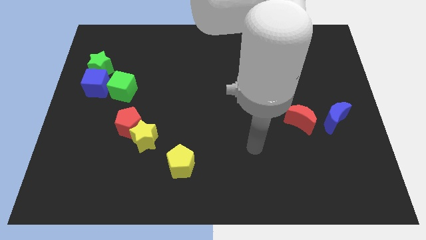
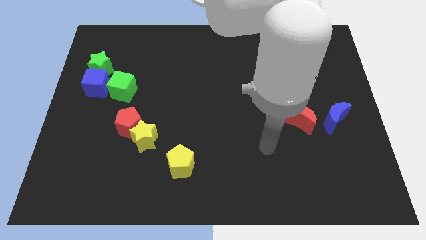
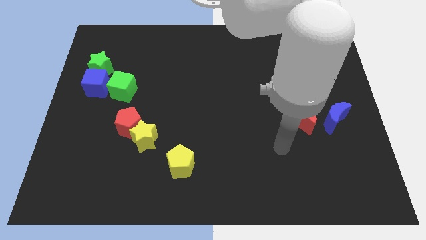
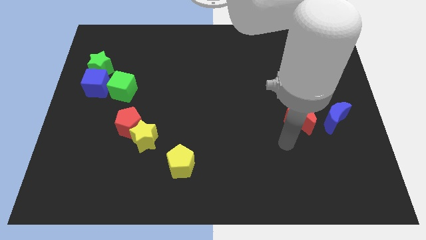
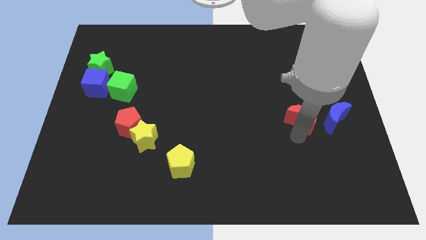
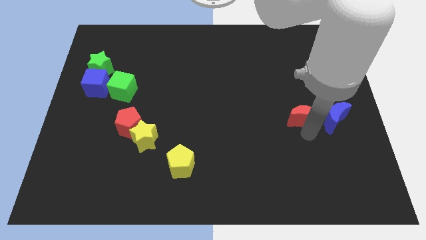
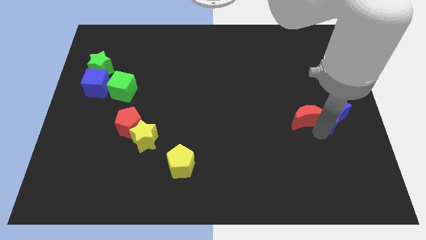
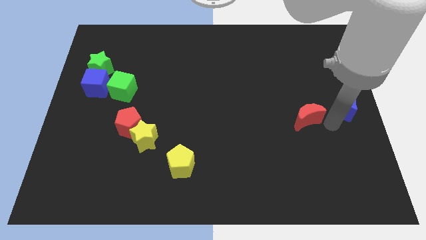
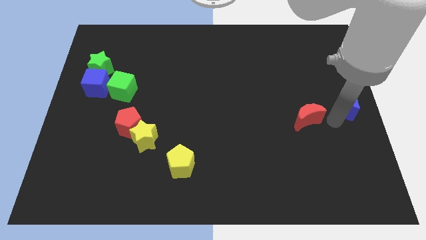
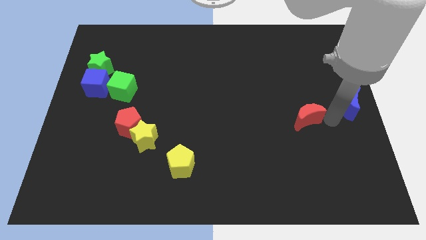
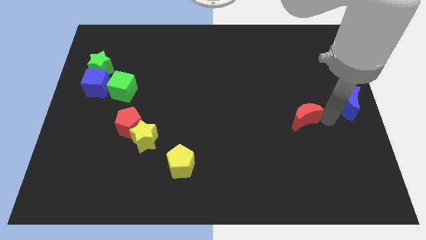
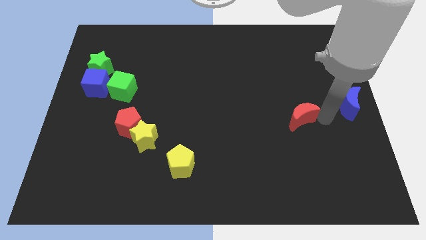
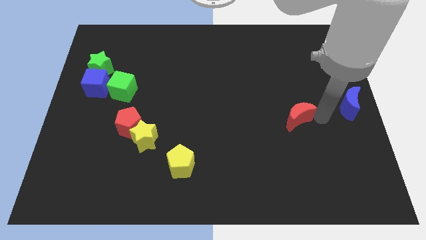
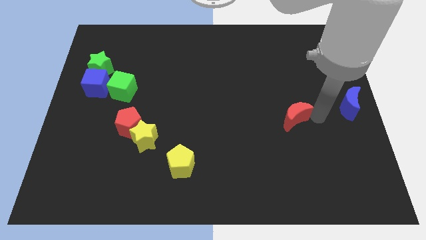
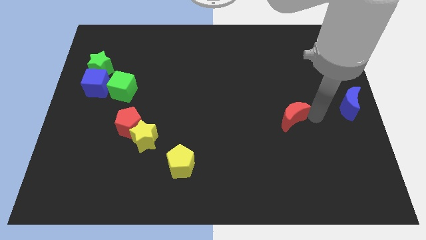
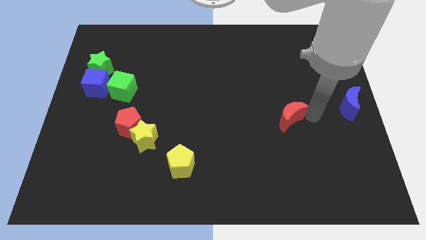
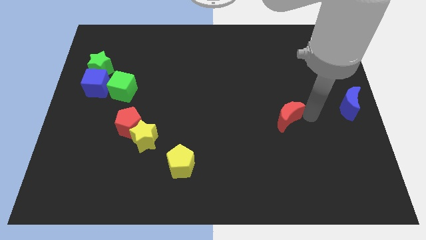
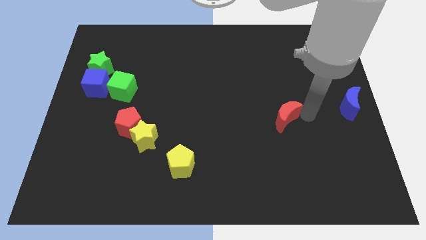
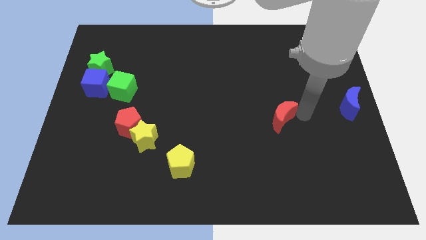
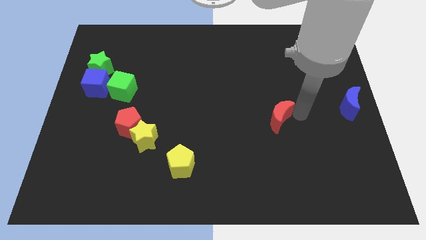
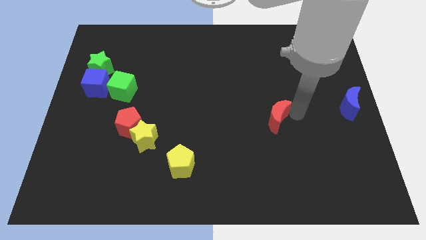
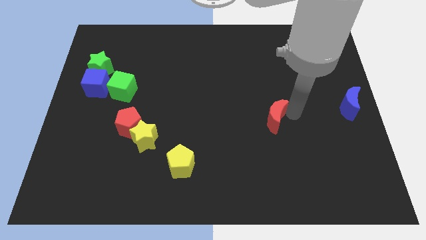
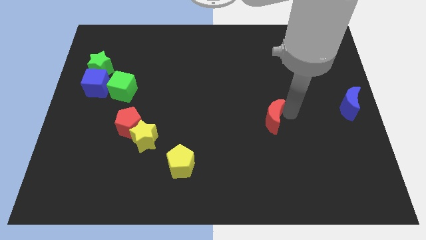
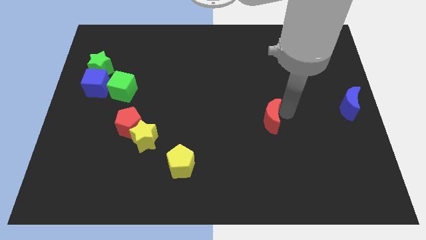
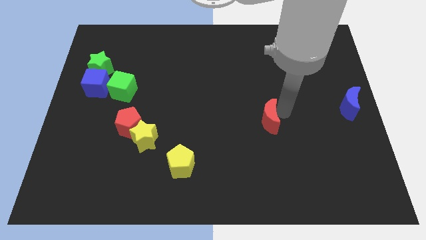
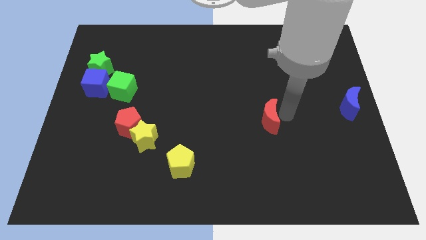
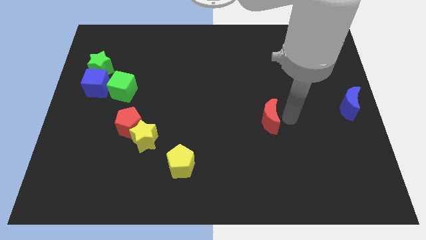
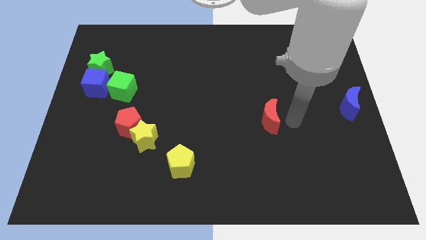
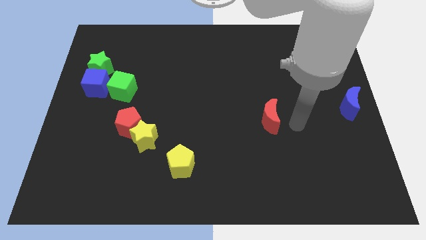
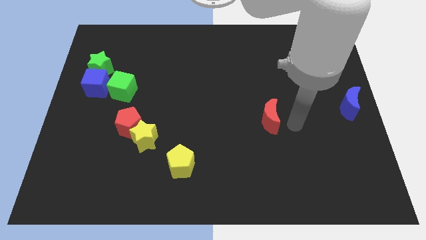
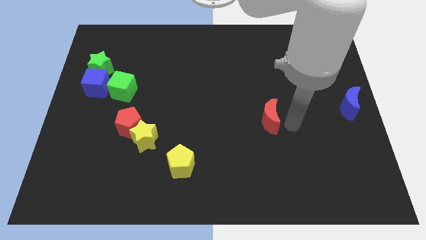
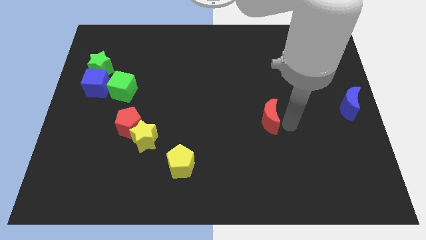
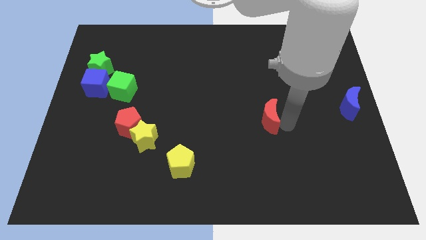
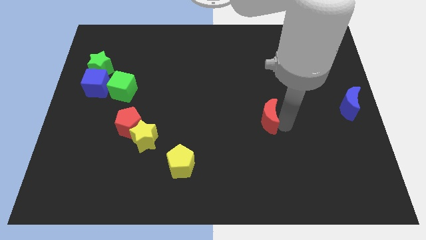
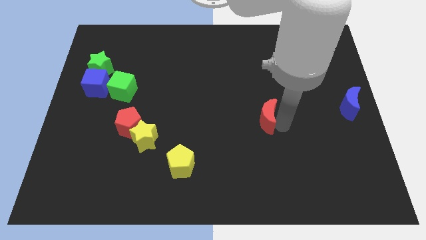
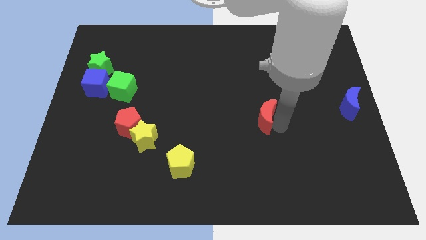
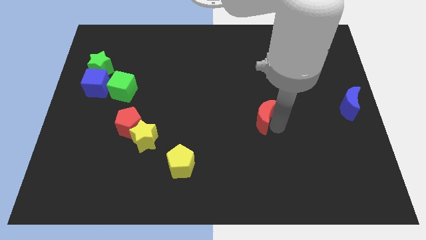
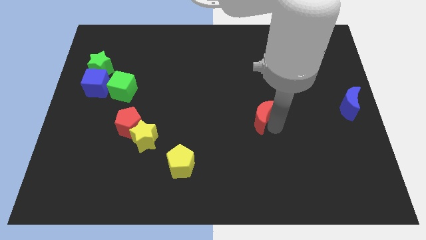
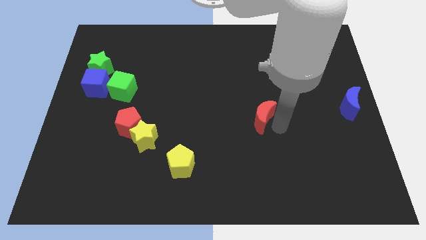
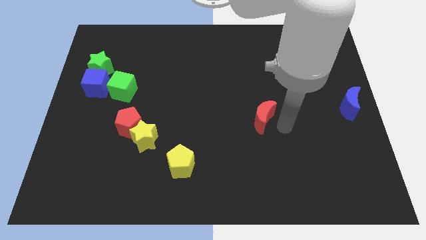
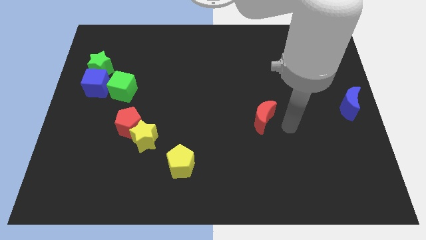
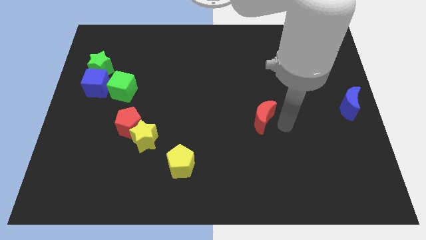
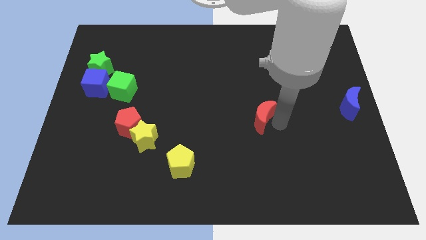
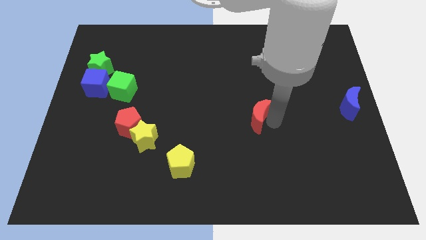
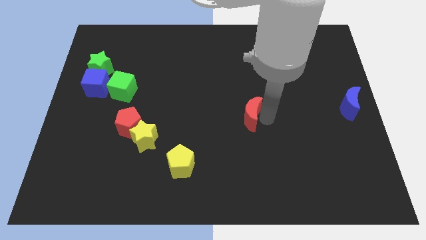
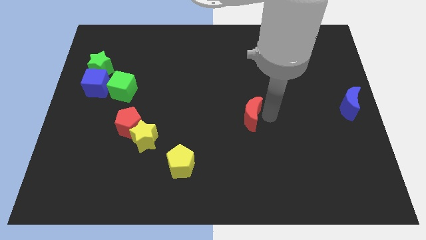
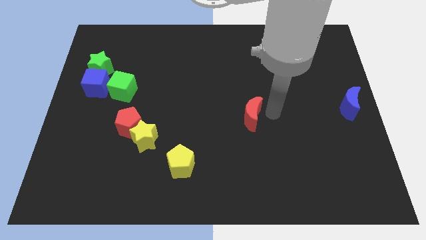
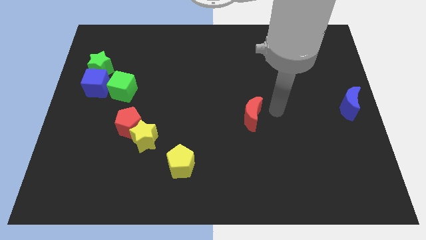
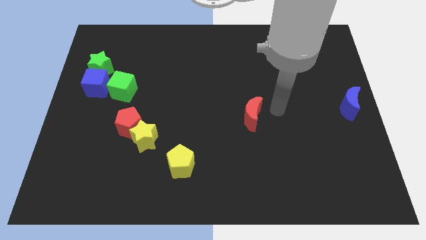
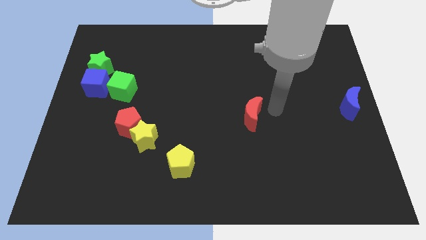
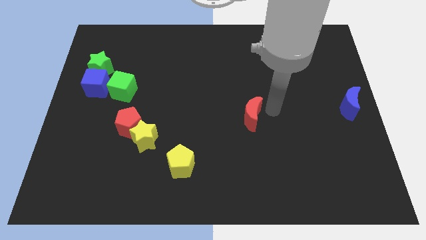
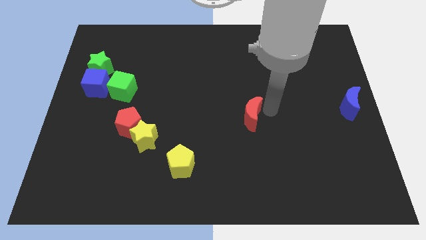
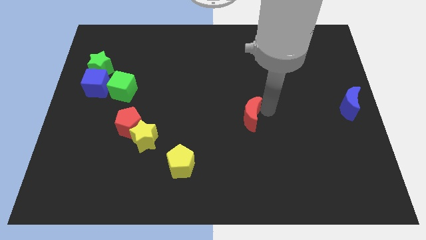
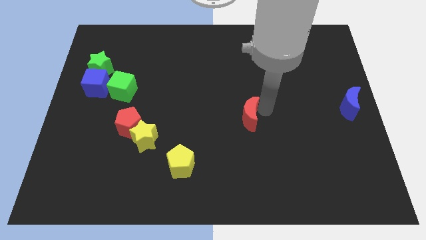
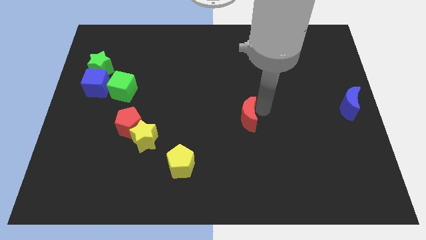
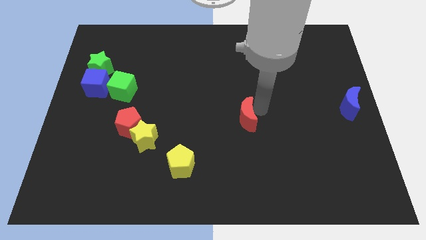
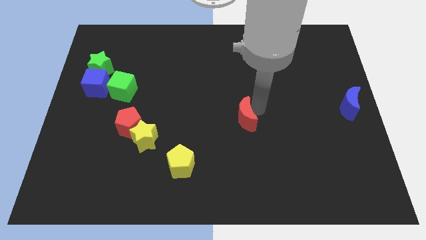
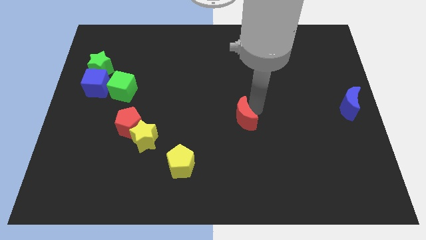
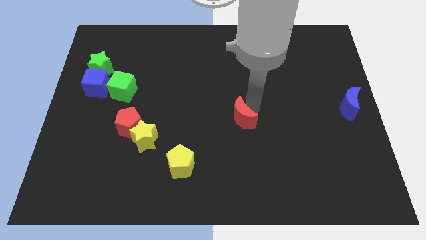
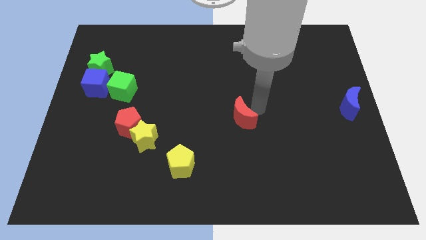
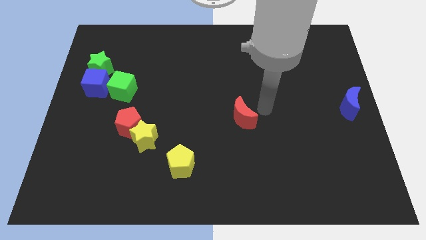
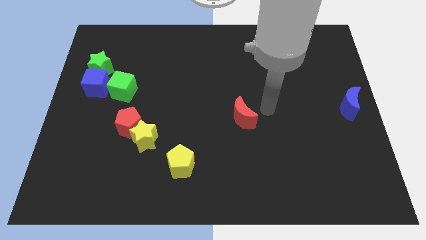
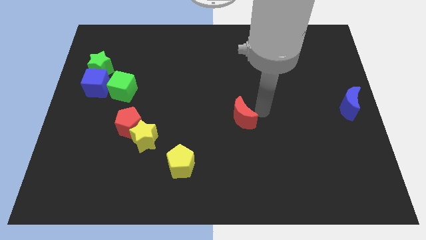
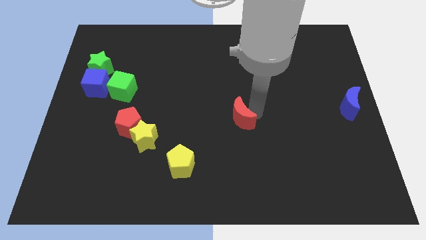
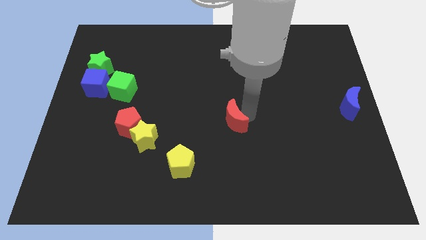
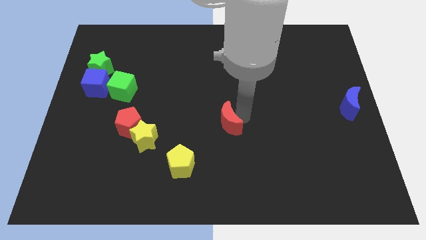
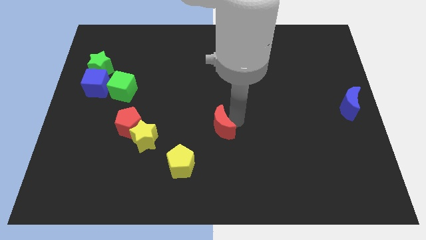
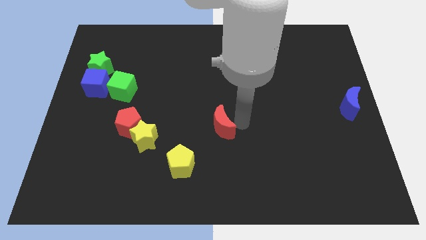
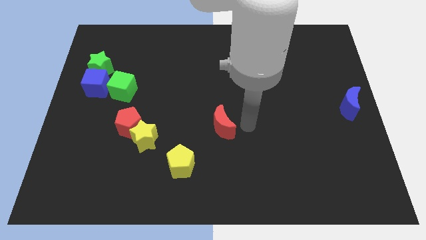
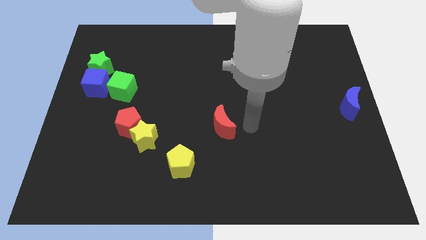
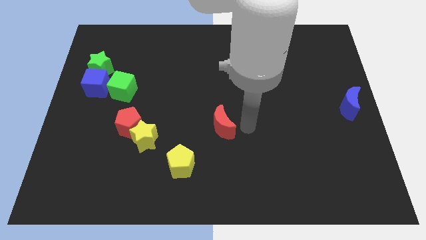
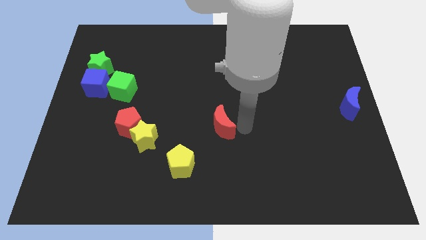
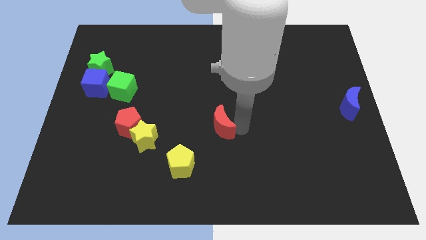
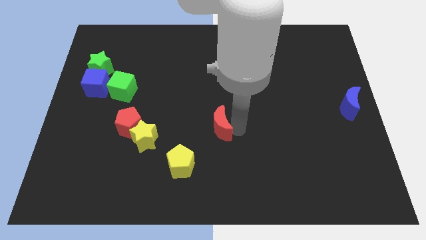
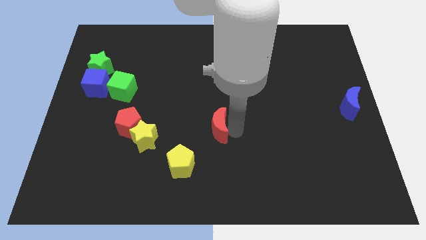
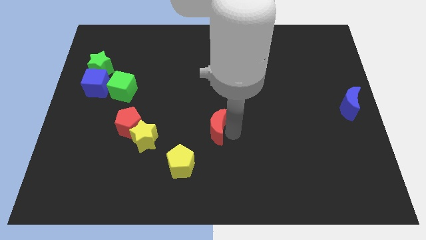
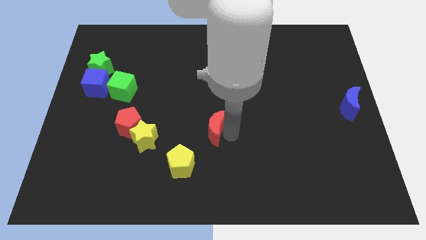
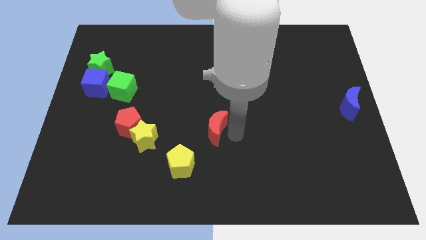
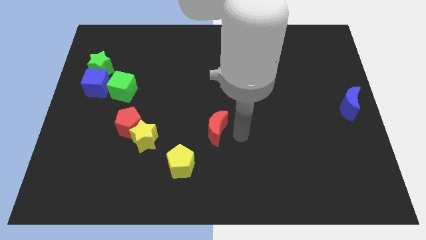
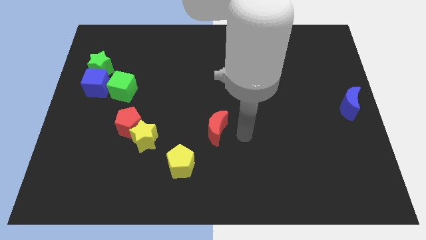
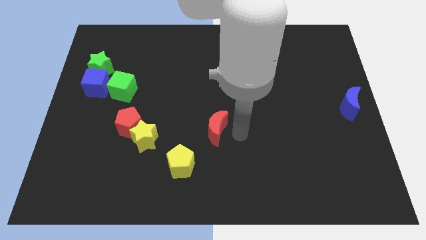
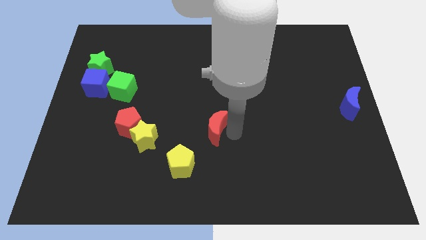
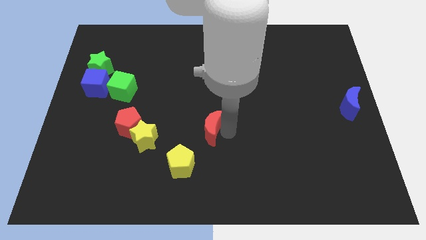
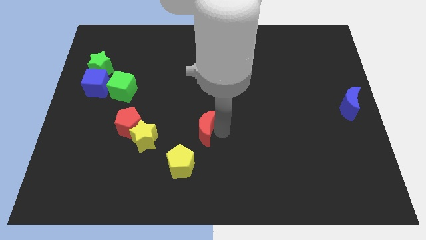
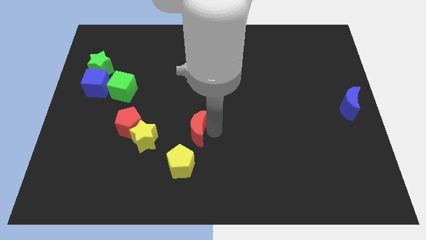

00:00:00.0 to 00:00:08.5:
put the red moon just right of the red pentagon
